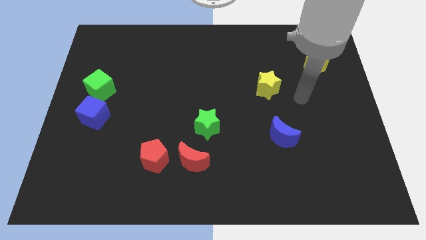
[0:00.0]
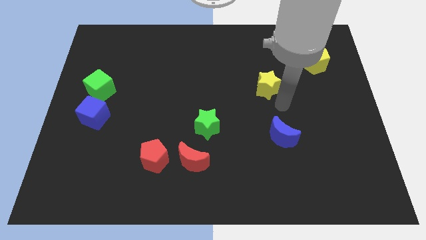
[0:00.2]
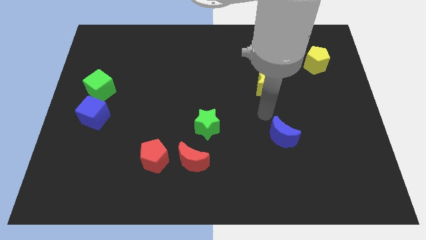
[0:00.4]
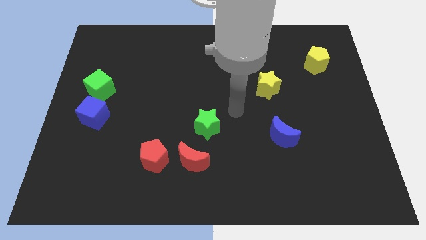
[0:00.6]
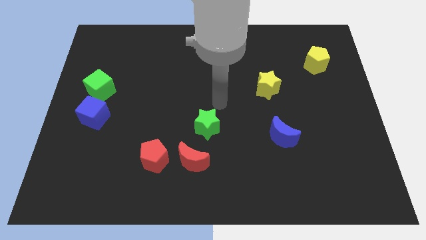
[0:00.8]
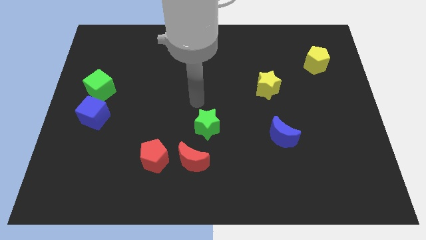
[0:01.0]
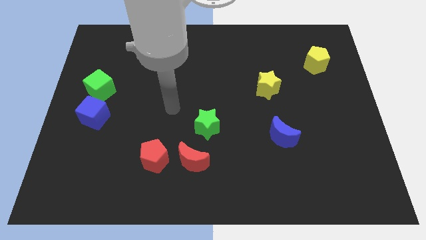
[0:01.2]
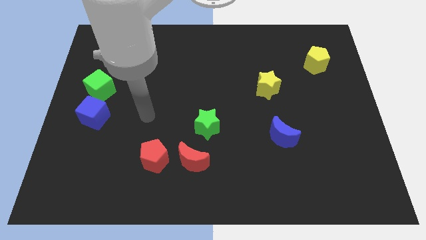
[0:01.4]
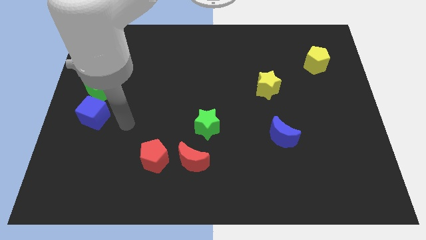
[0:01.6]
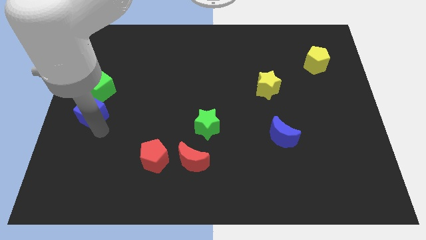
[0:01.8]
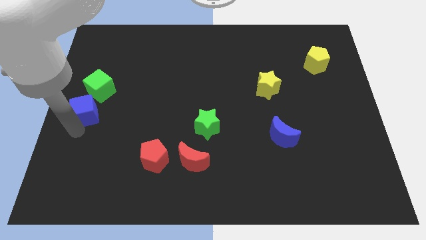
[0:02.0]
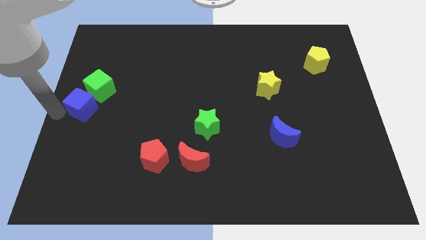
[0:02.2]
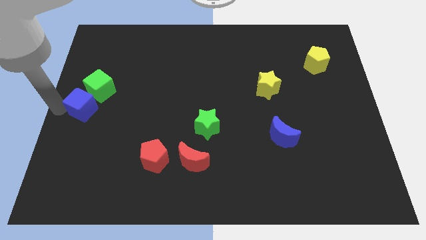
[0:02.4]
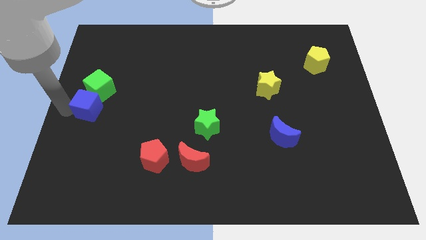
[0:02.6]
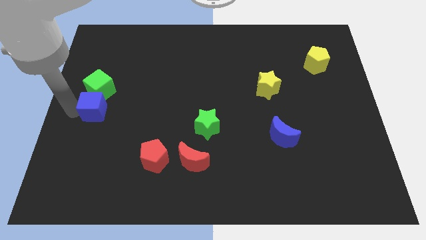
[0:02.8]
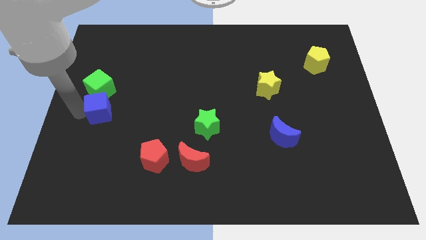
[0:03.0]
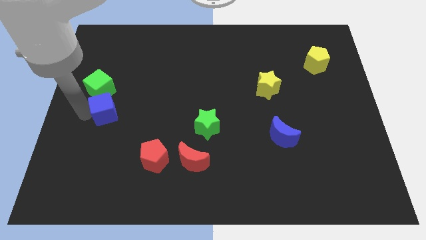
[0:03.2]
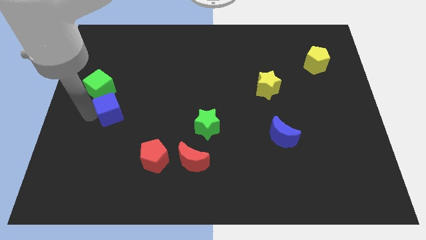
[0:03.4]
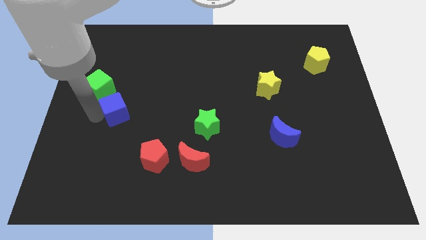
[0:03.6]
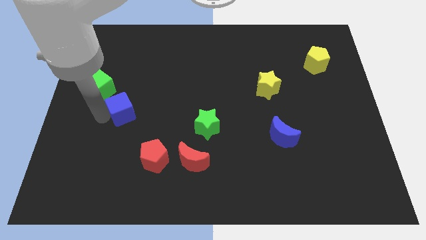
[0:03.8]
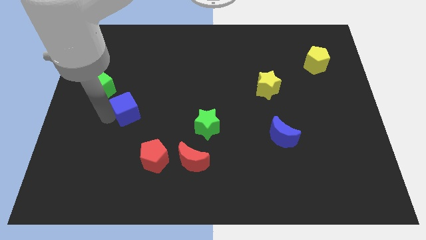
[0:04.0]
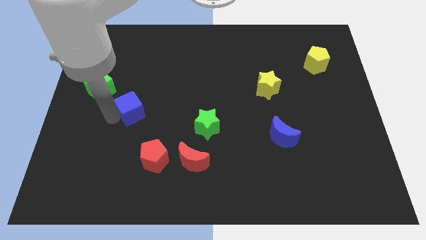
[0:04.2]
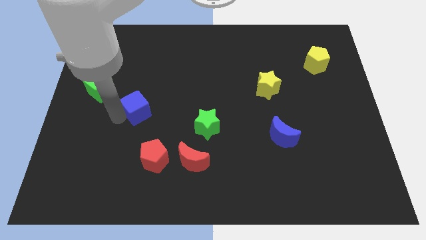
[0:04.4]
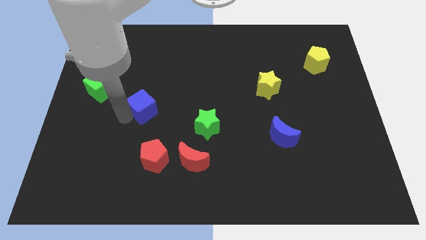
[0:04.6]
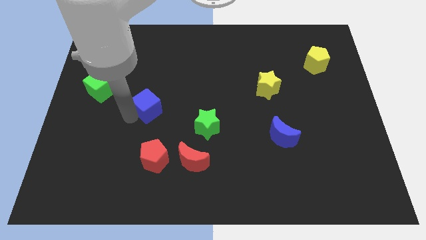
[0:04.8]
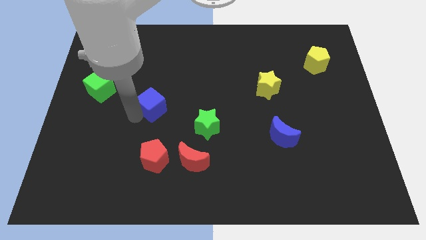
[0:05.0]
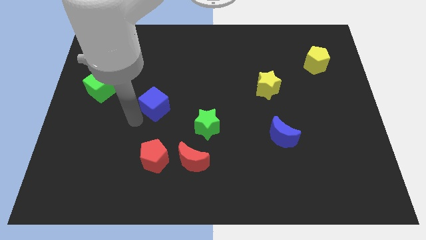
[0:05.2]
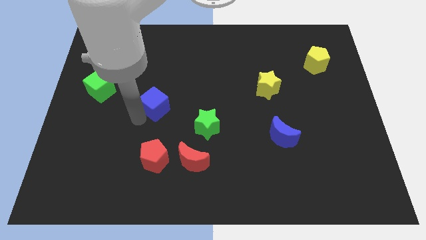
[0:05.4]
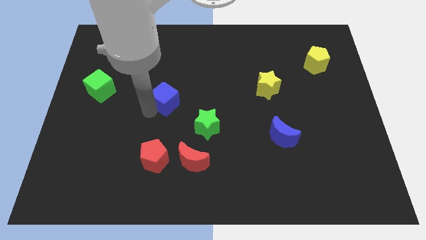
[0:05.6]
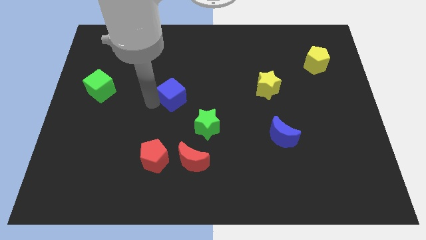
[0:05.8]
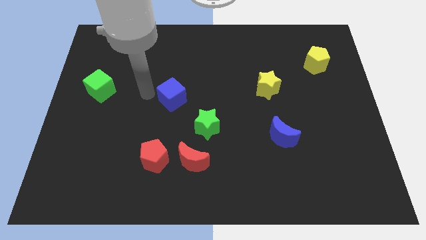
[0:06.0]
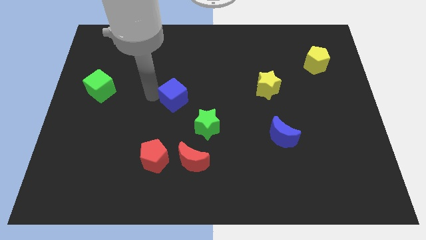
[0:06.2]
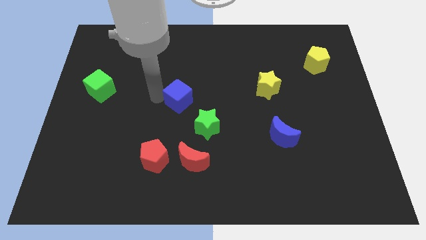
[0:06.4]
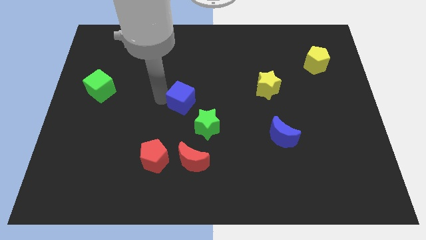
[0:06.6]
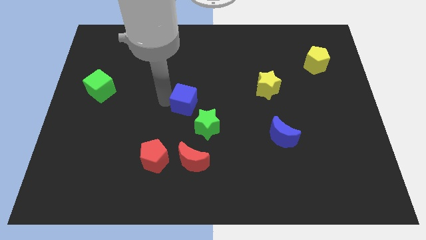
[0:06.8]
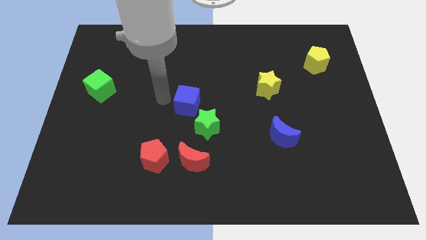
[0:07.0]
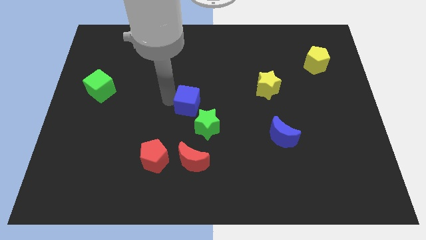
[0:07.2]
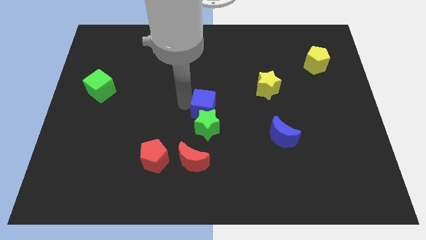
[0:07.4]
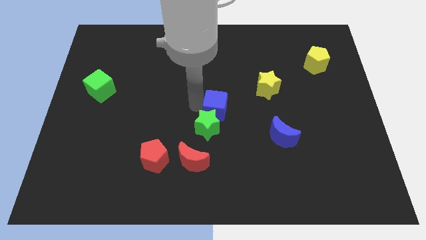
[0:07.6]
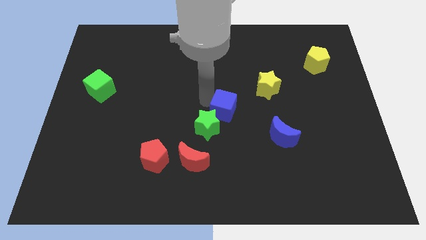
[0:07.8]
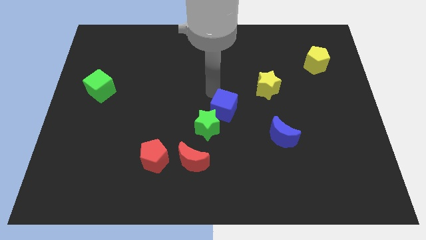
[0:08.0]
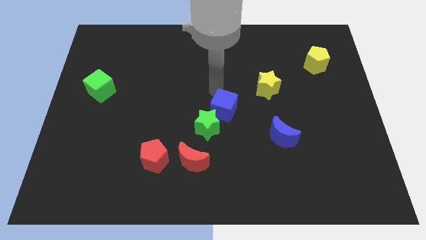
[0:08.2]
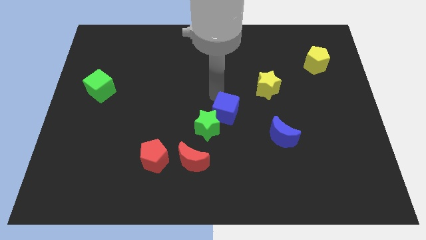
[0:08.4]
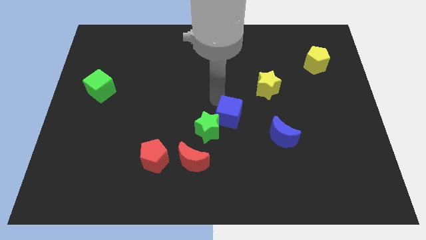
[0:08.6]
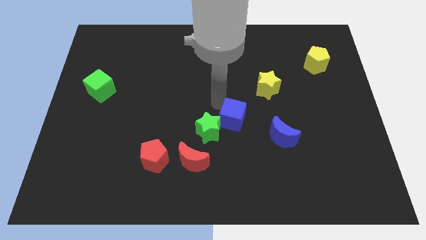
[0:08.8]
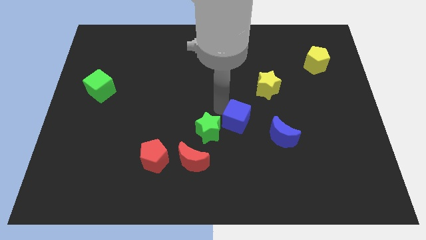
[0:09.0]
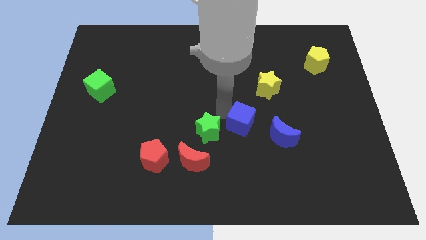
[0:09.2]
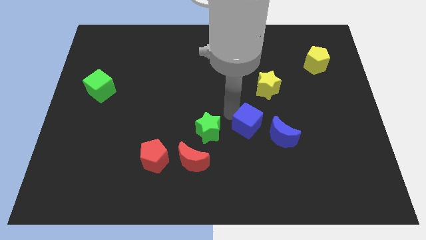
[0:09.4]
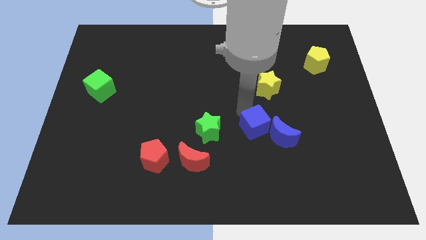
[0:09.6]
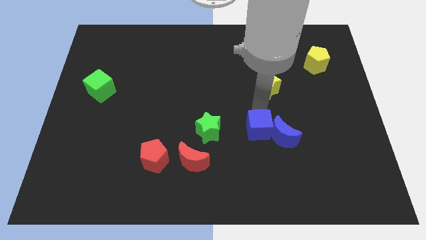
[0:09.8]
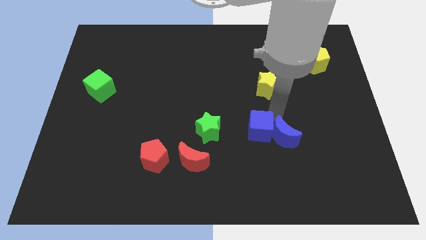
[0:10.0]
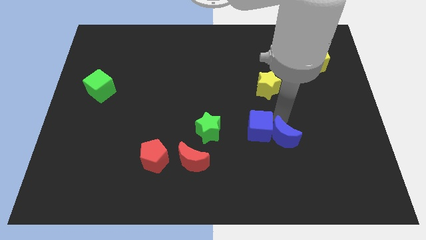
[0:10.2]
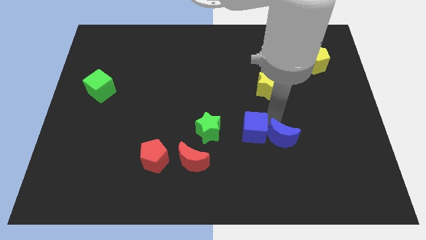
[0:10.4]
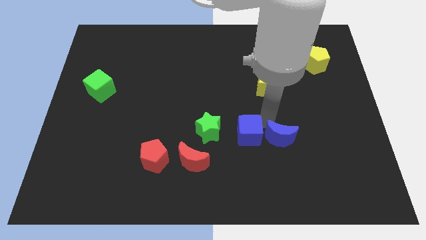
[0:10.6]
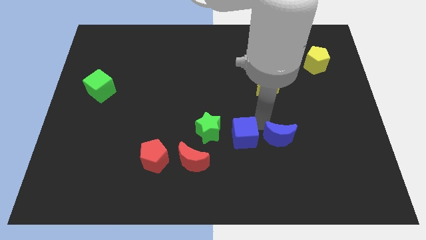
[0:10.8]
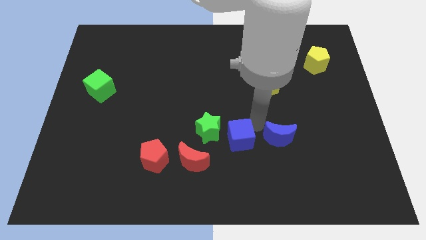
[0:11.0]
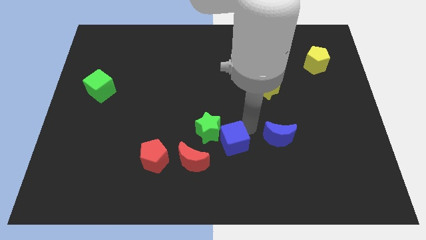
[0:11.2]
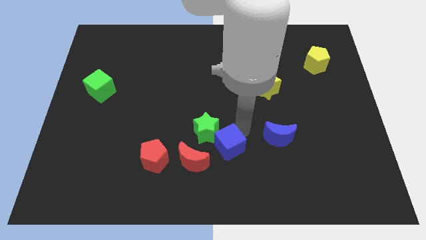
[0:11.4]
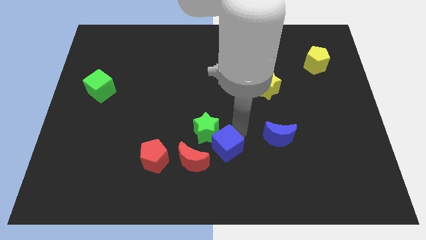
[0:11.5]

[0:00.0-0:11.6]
slide the blue cube right of the red pentagon
